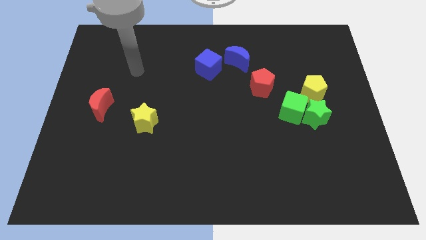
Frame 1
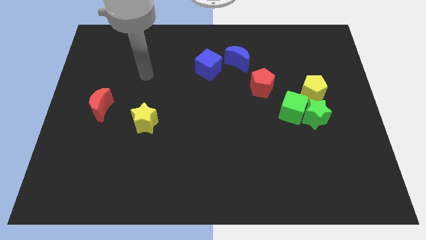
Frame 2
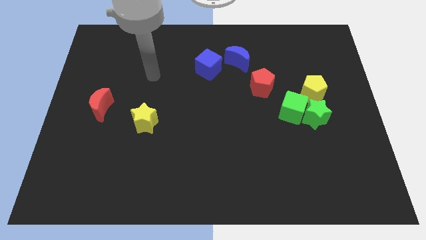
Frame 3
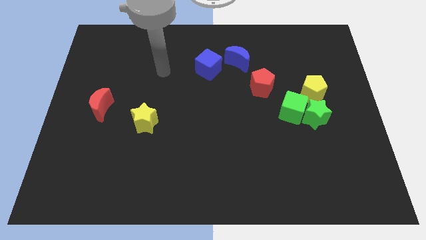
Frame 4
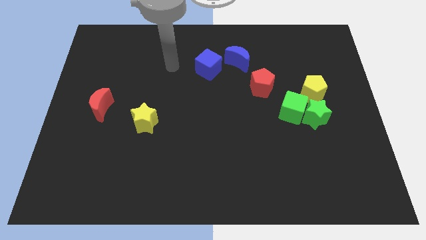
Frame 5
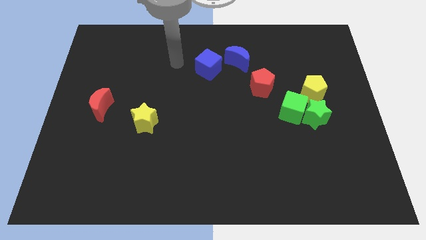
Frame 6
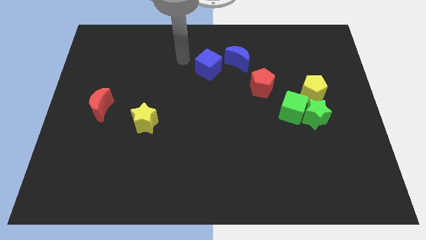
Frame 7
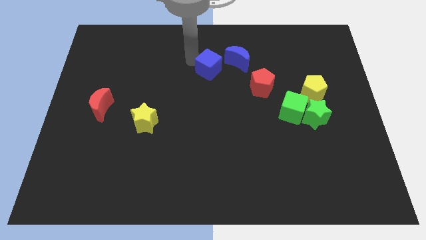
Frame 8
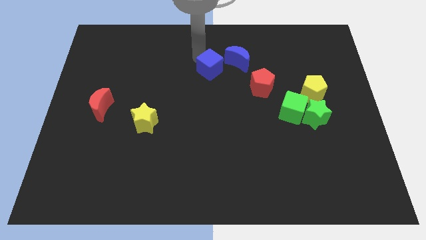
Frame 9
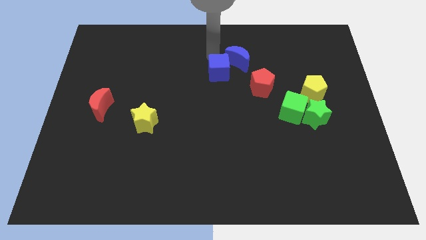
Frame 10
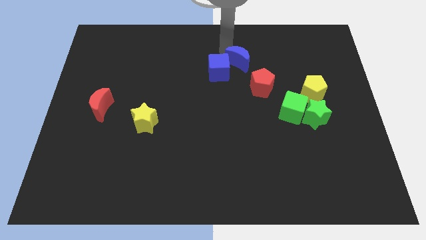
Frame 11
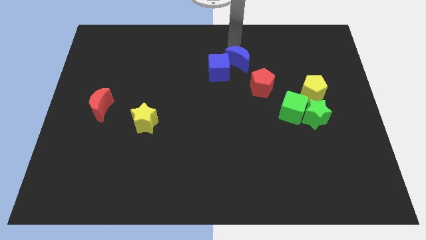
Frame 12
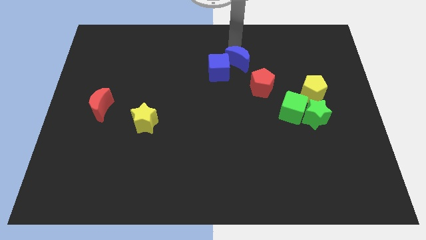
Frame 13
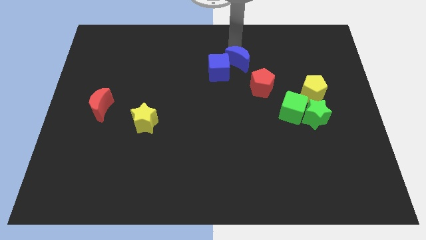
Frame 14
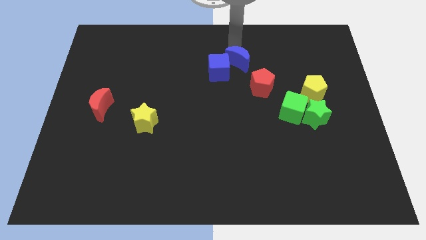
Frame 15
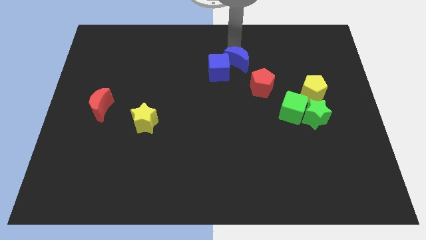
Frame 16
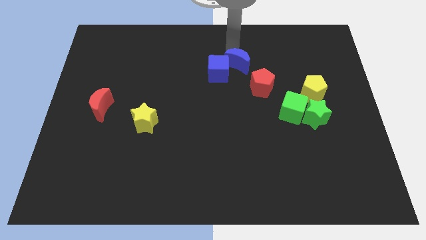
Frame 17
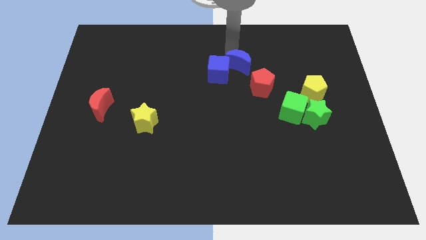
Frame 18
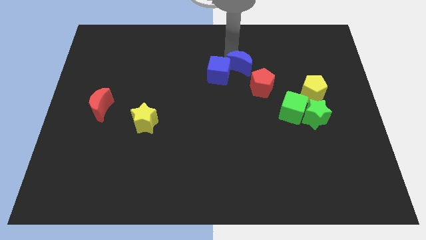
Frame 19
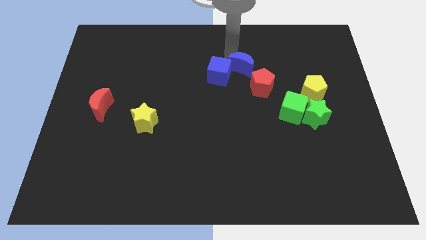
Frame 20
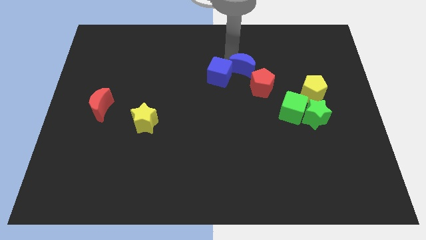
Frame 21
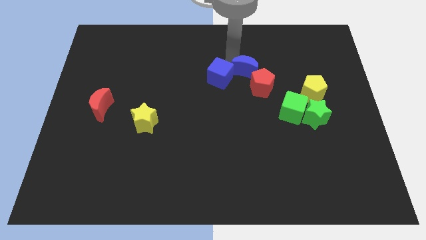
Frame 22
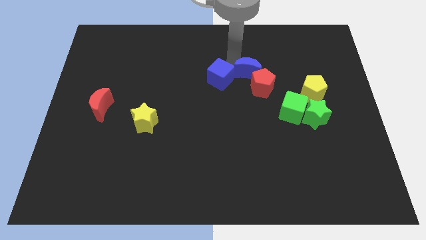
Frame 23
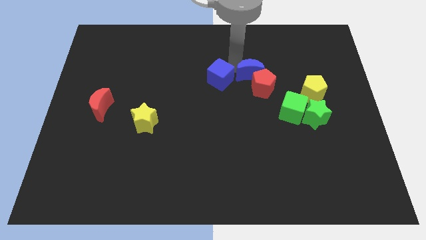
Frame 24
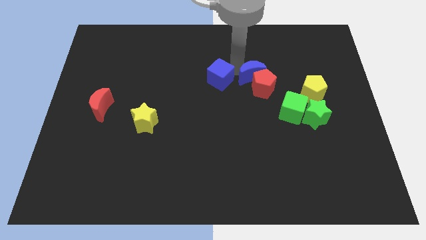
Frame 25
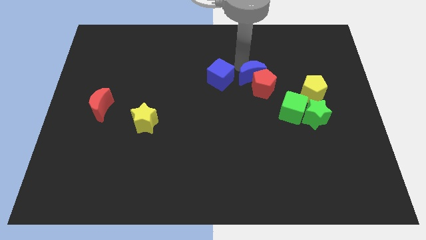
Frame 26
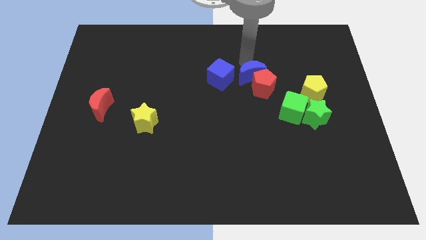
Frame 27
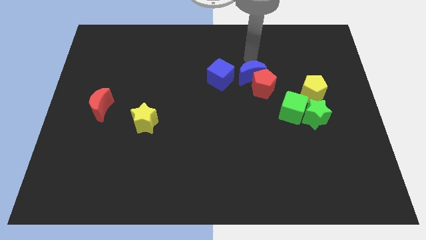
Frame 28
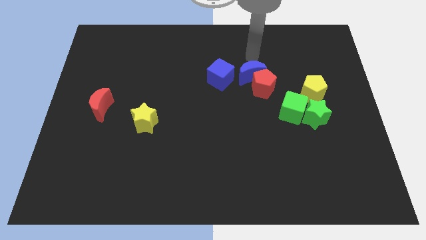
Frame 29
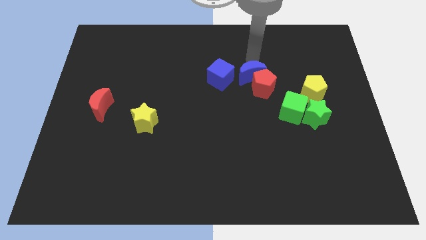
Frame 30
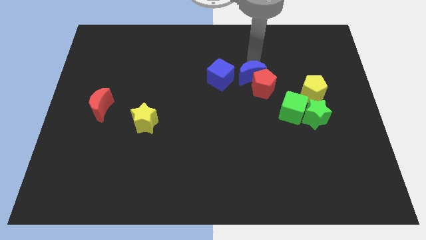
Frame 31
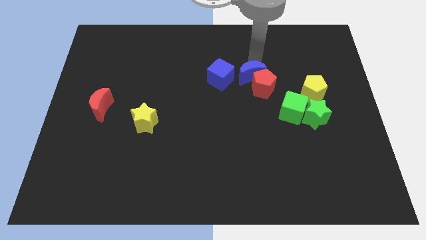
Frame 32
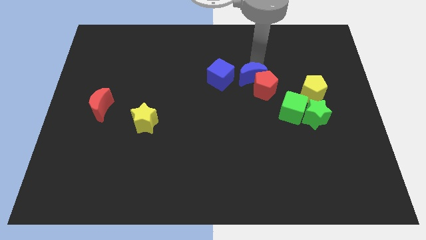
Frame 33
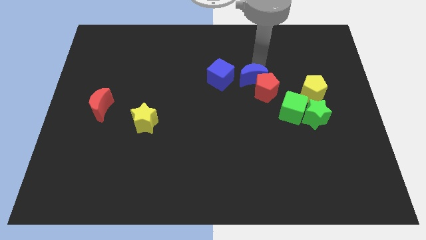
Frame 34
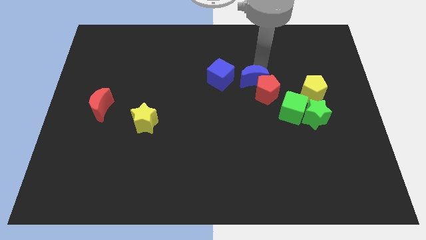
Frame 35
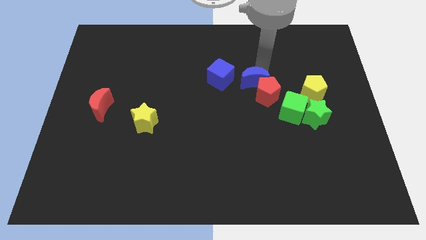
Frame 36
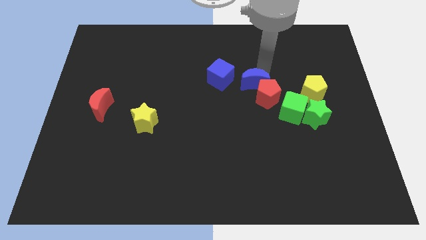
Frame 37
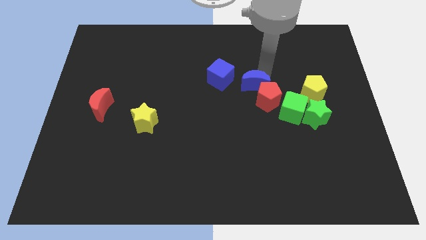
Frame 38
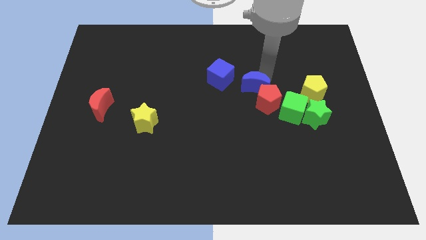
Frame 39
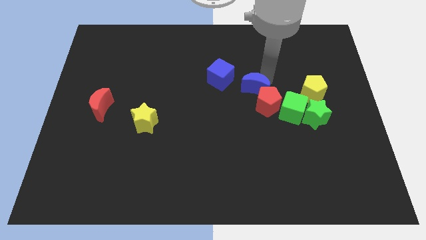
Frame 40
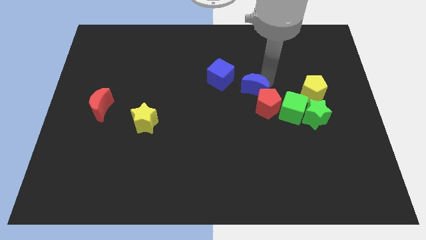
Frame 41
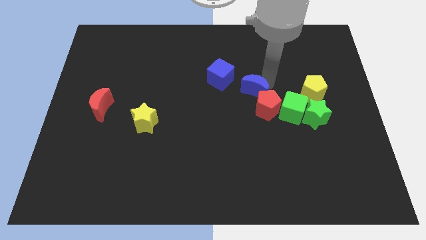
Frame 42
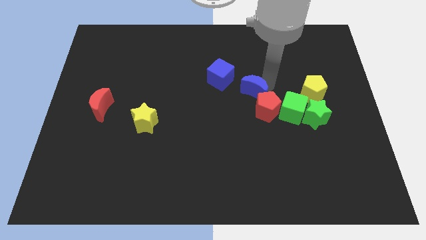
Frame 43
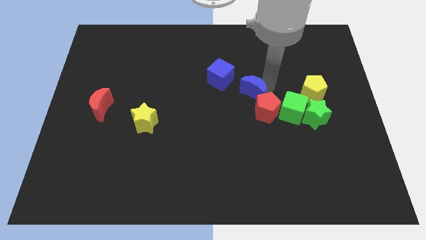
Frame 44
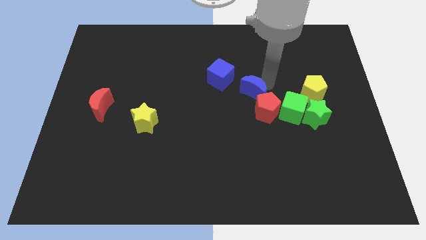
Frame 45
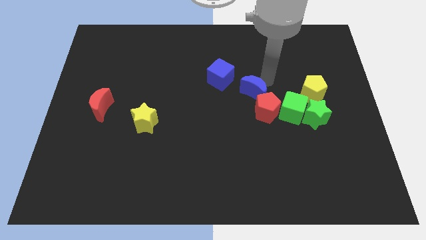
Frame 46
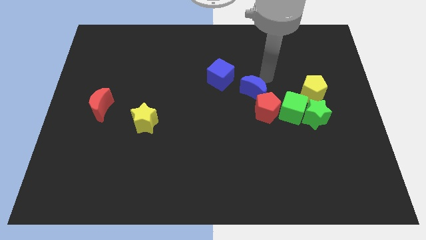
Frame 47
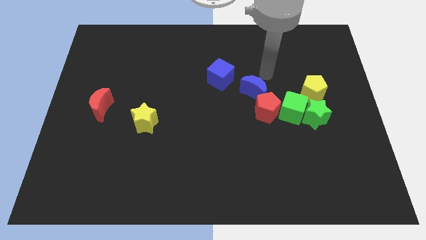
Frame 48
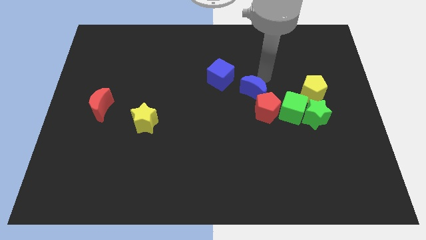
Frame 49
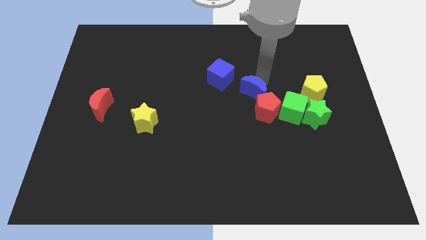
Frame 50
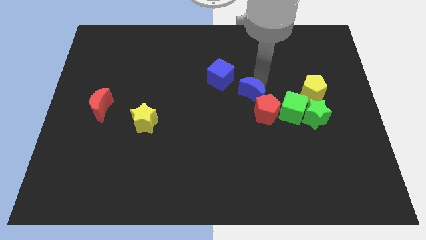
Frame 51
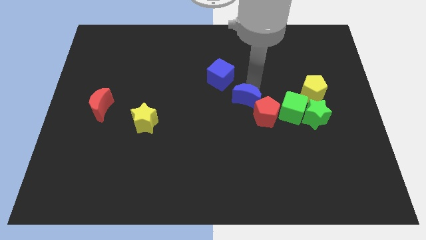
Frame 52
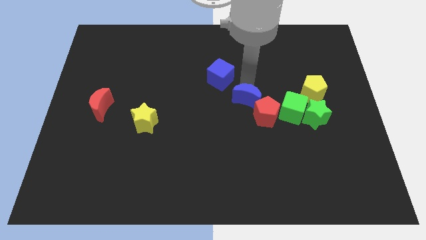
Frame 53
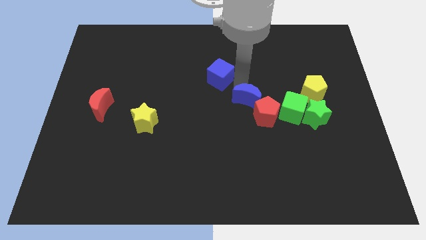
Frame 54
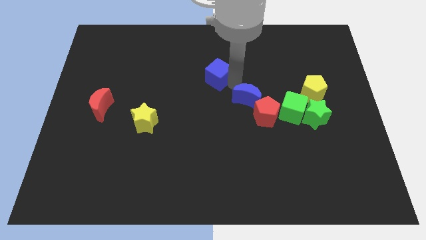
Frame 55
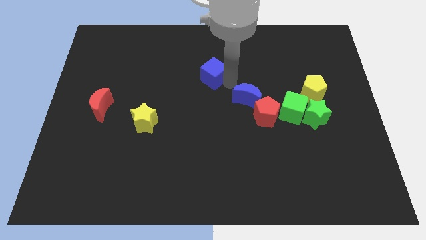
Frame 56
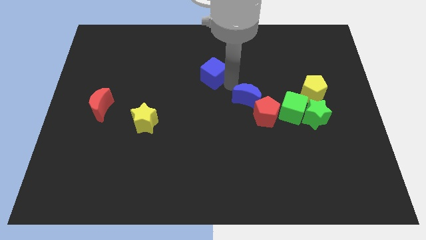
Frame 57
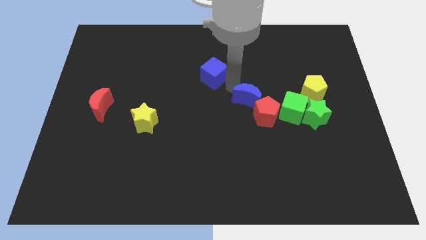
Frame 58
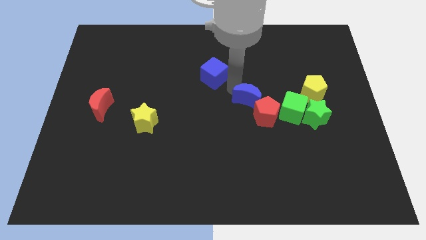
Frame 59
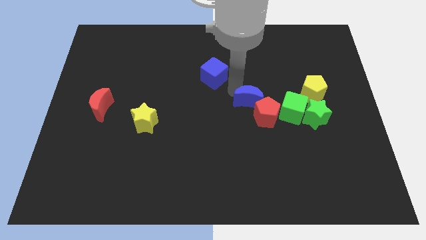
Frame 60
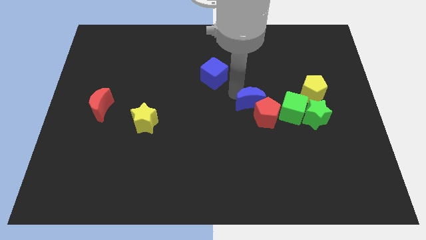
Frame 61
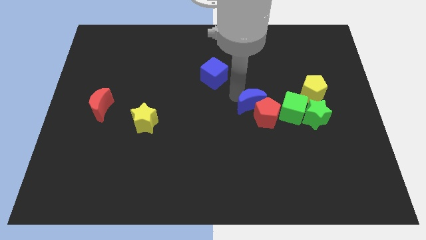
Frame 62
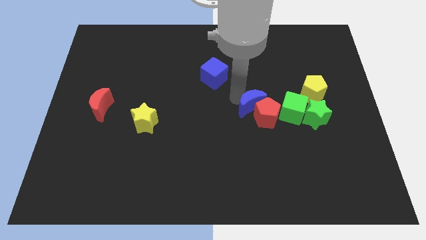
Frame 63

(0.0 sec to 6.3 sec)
slide the blue moon just left of the green star

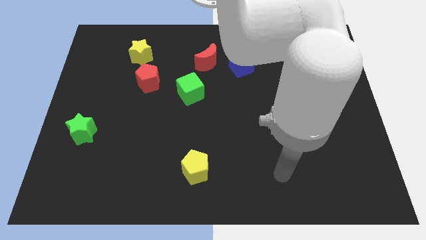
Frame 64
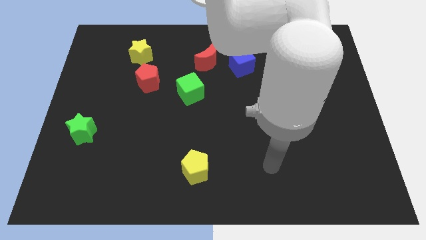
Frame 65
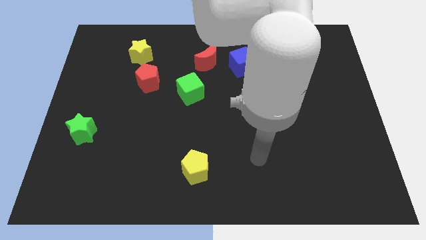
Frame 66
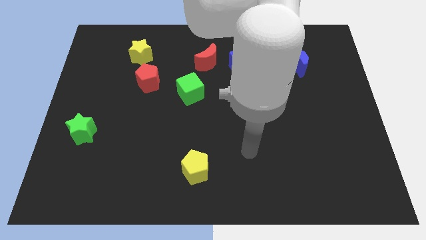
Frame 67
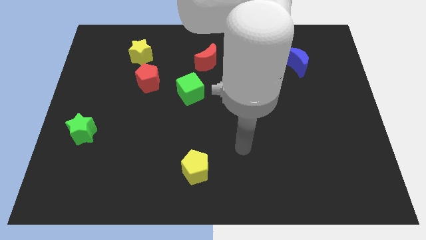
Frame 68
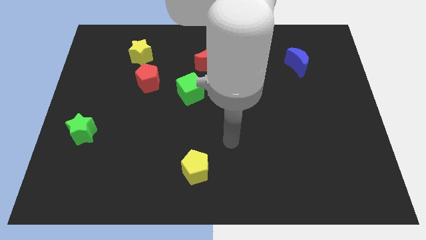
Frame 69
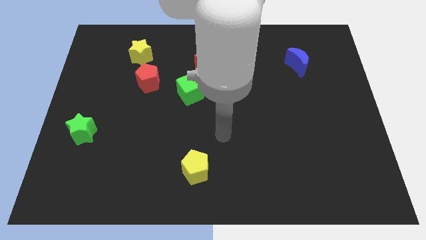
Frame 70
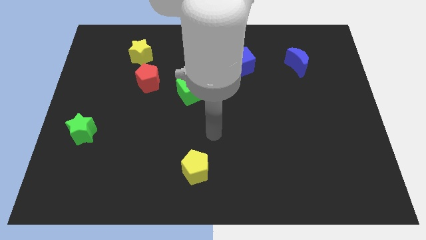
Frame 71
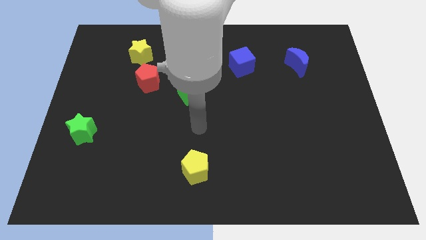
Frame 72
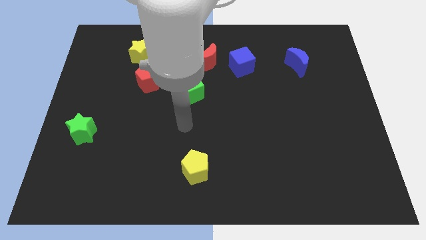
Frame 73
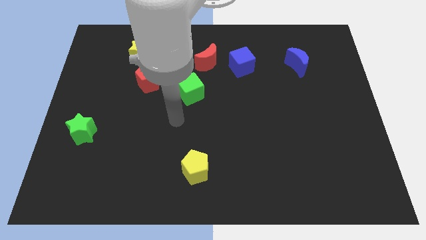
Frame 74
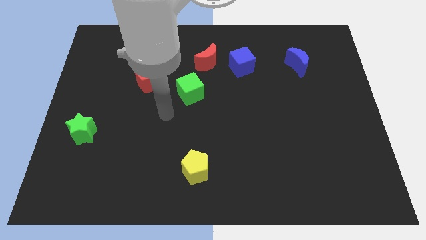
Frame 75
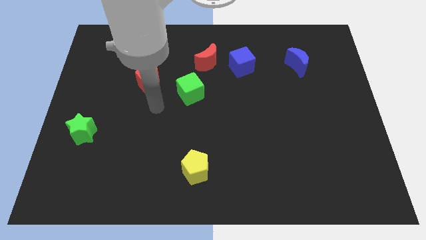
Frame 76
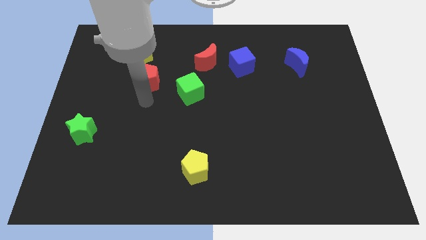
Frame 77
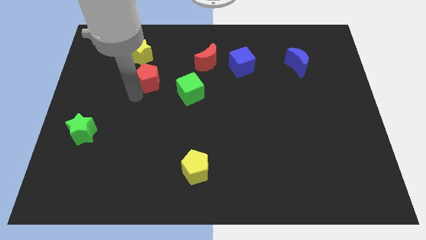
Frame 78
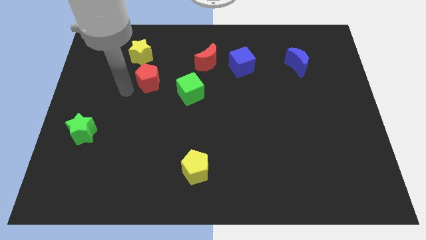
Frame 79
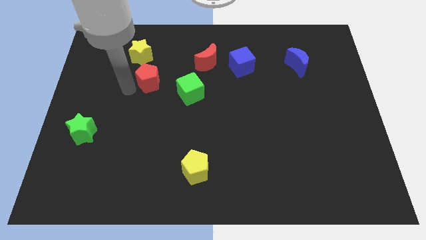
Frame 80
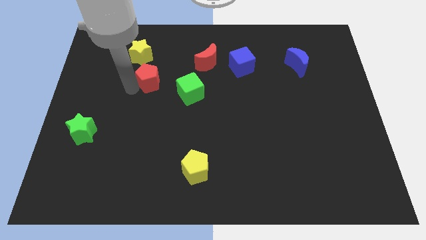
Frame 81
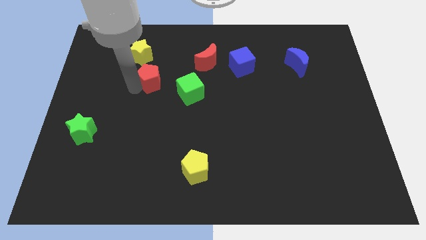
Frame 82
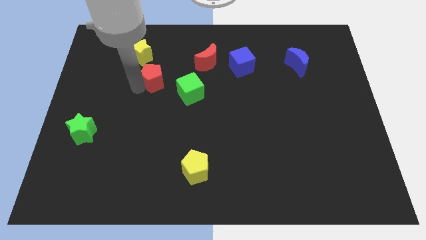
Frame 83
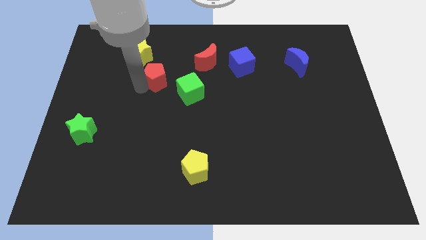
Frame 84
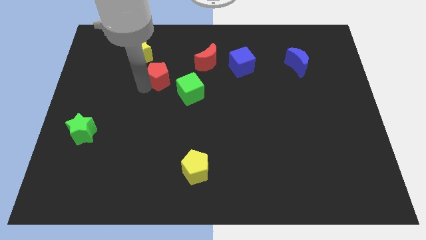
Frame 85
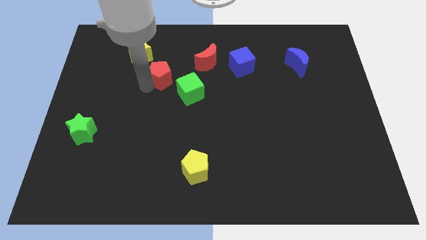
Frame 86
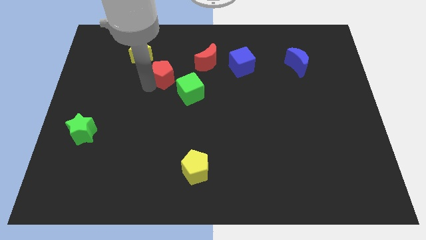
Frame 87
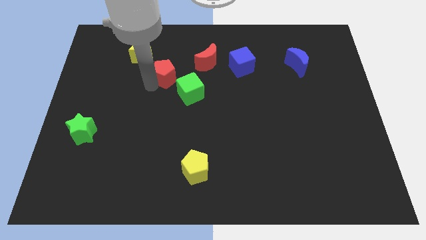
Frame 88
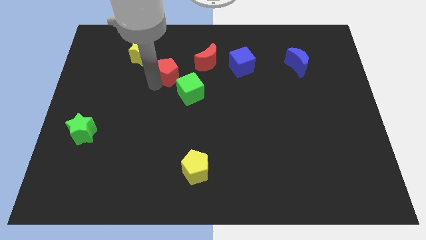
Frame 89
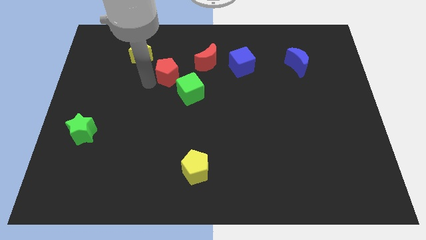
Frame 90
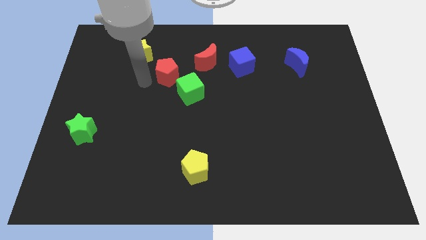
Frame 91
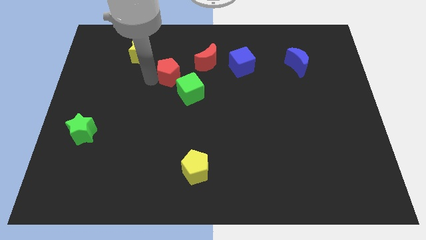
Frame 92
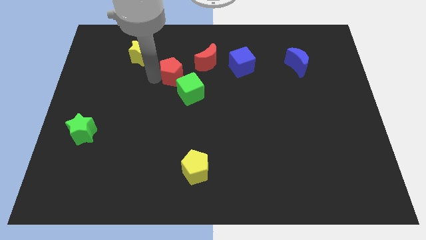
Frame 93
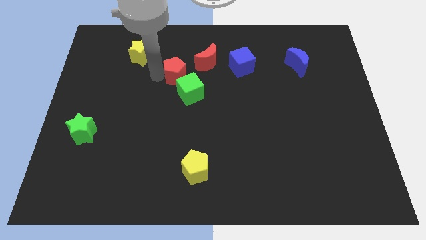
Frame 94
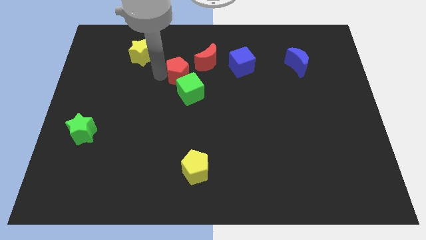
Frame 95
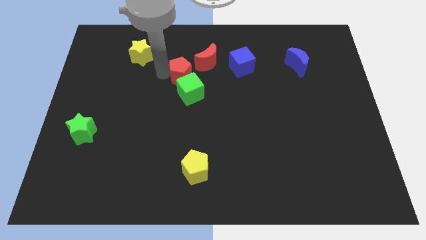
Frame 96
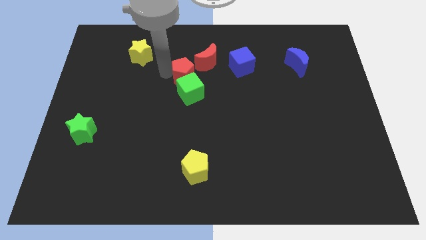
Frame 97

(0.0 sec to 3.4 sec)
push the red pentagon left of the blue cube
